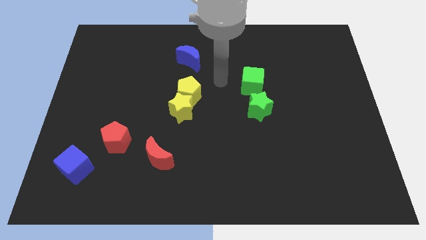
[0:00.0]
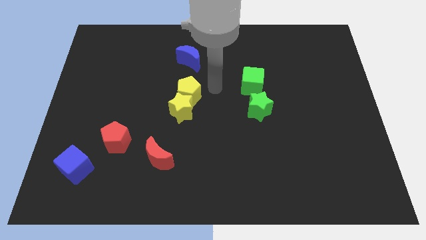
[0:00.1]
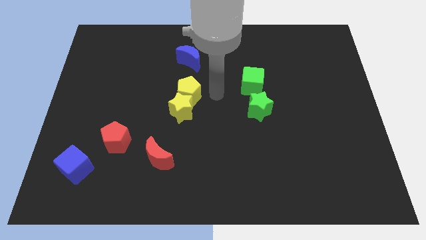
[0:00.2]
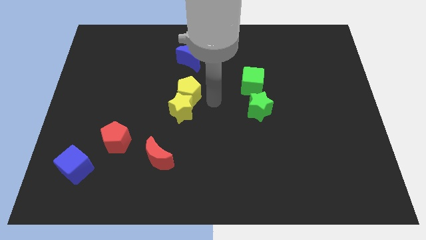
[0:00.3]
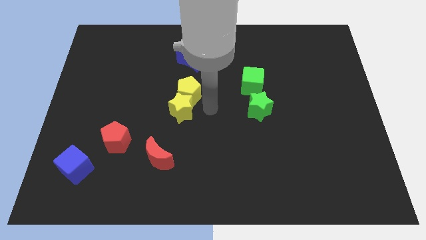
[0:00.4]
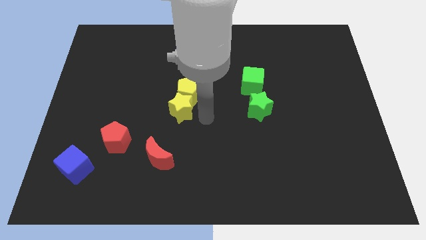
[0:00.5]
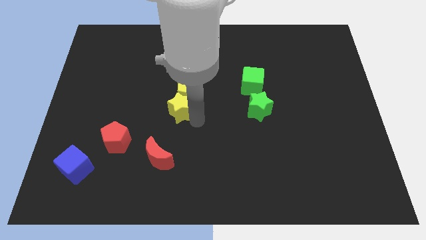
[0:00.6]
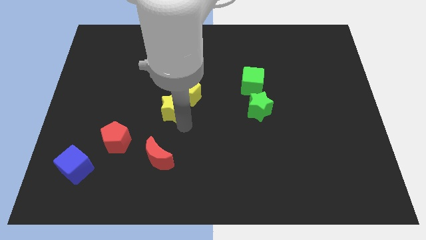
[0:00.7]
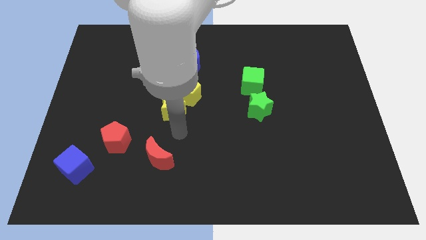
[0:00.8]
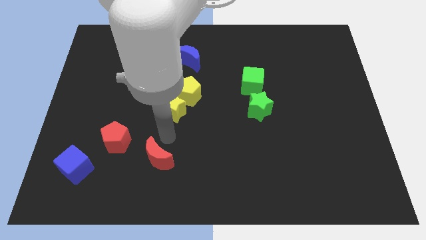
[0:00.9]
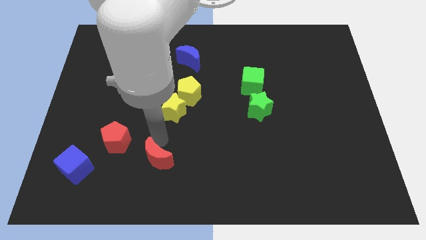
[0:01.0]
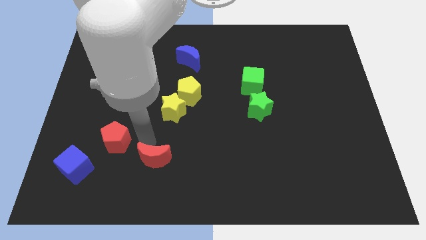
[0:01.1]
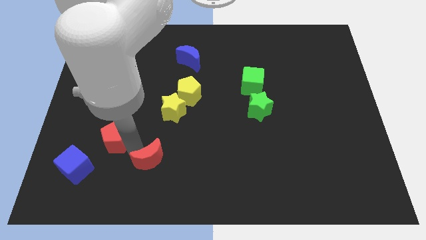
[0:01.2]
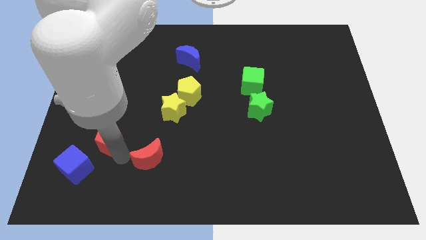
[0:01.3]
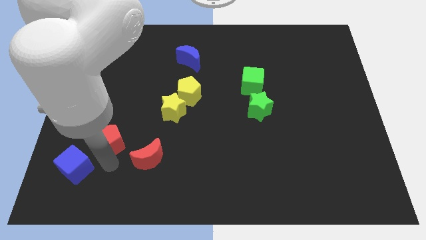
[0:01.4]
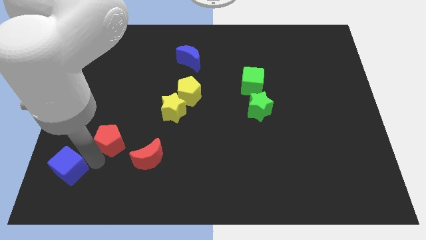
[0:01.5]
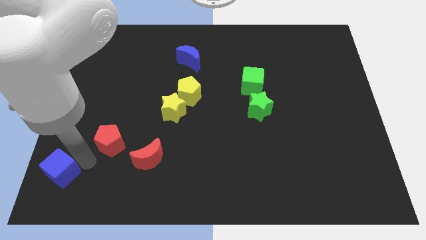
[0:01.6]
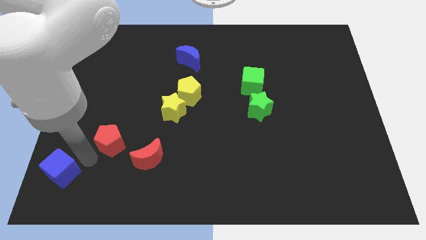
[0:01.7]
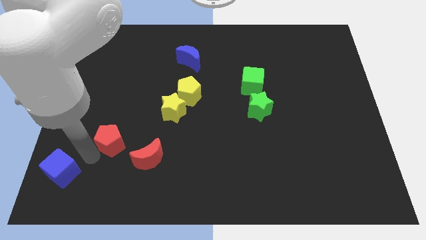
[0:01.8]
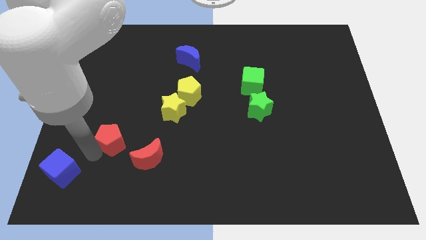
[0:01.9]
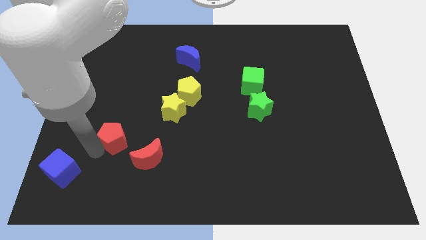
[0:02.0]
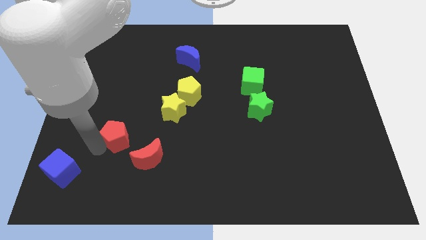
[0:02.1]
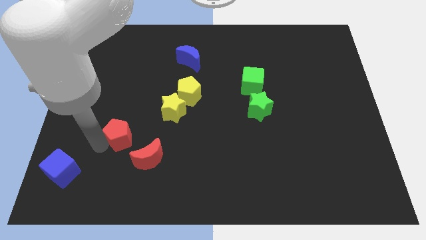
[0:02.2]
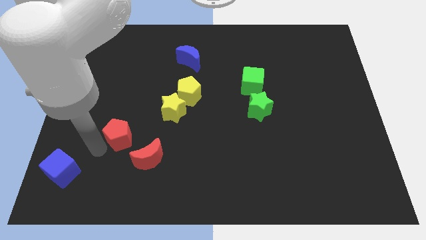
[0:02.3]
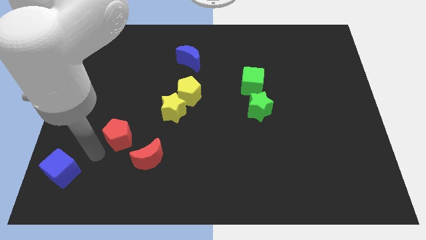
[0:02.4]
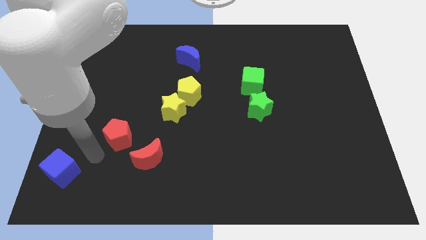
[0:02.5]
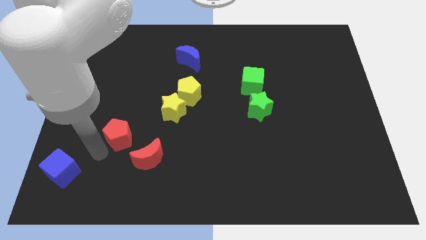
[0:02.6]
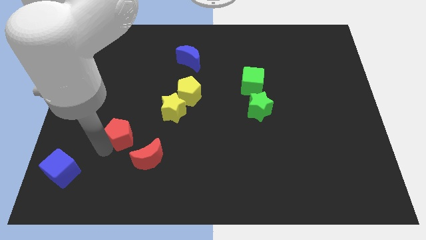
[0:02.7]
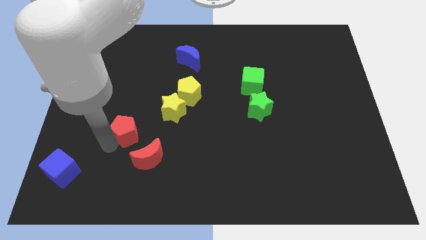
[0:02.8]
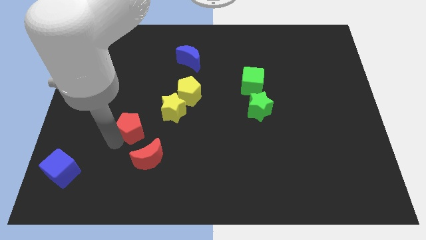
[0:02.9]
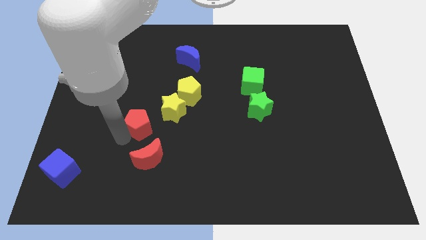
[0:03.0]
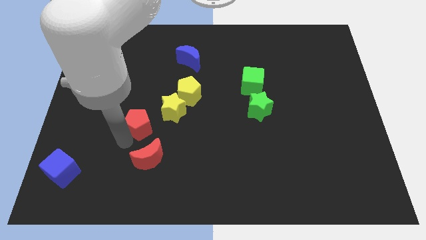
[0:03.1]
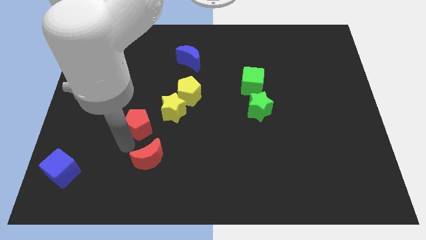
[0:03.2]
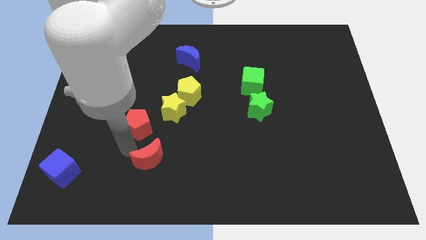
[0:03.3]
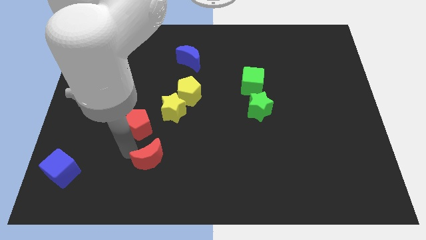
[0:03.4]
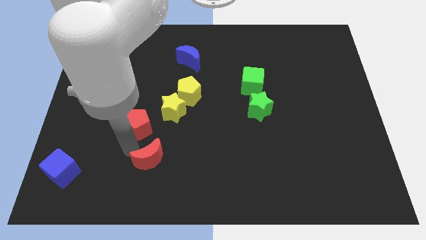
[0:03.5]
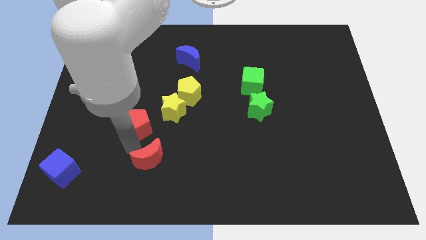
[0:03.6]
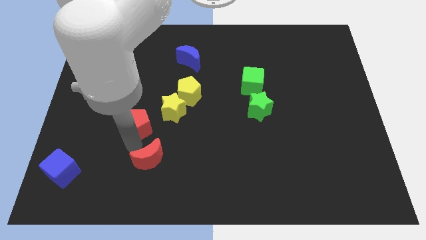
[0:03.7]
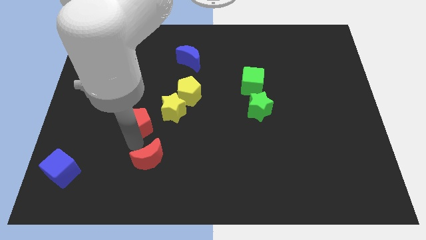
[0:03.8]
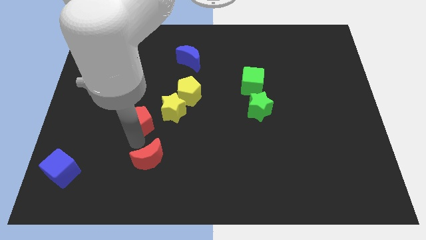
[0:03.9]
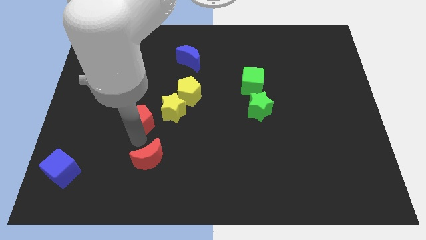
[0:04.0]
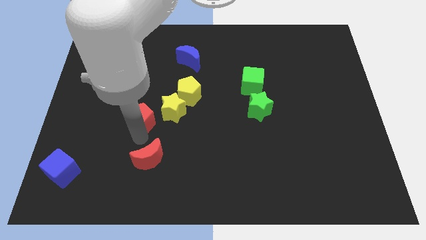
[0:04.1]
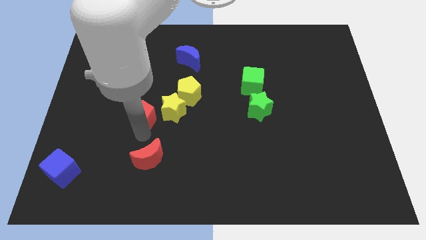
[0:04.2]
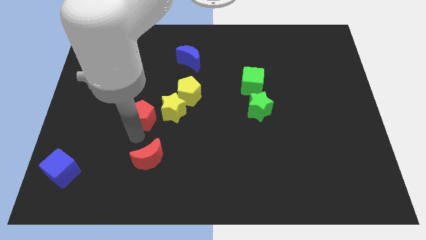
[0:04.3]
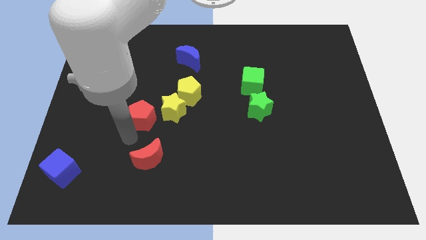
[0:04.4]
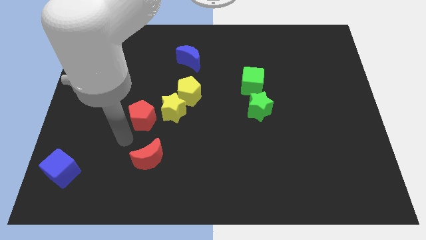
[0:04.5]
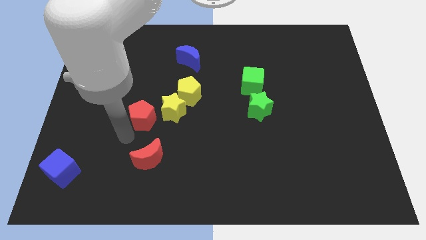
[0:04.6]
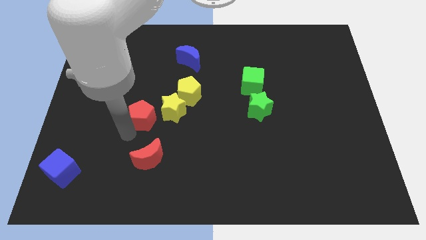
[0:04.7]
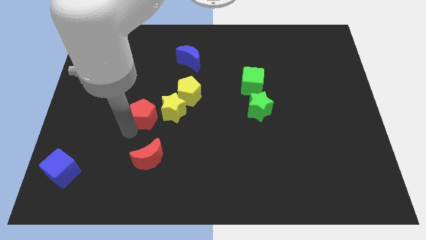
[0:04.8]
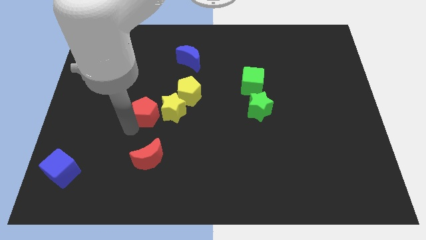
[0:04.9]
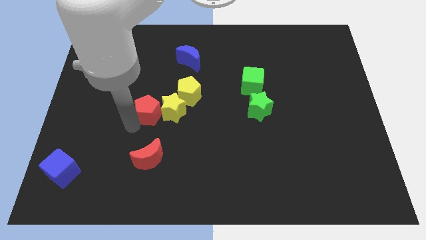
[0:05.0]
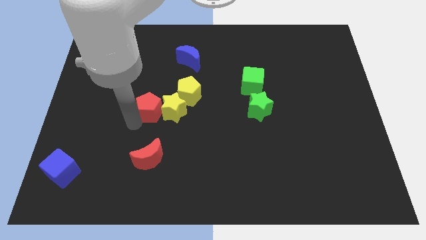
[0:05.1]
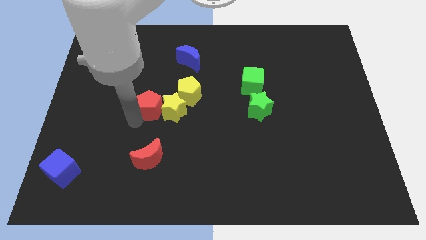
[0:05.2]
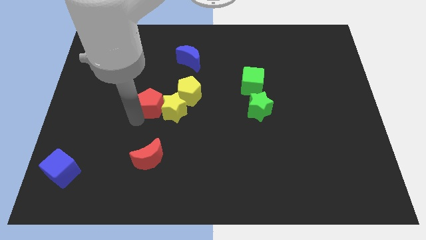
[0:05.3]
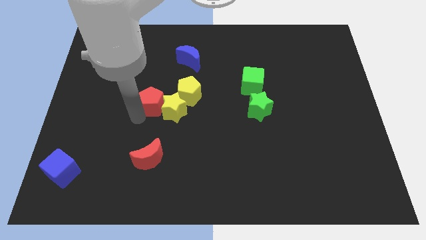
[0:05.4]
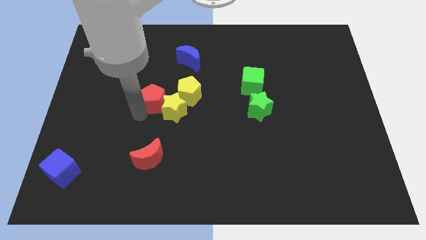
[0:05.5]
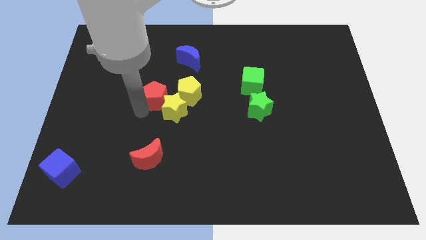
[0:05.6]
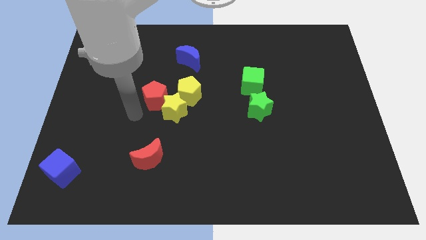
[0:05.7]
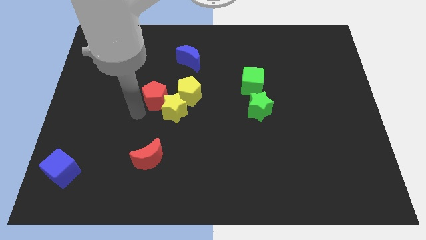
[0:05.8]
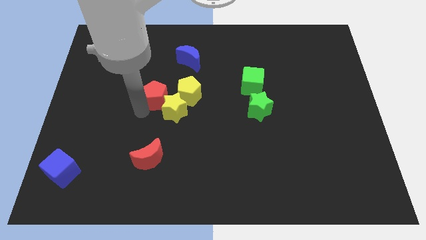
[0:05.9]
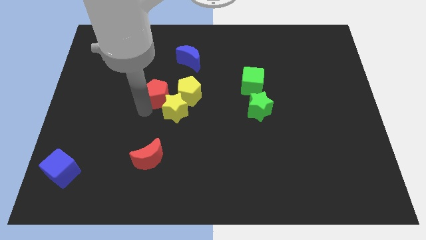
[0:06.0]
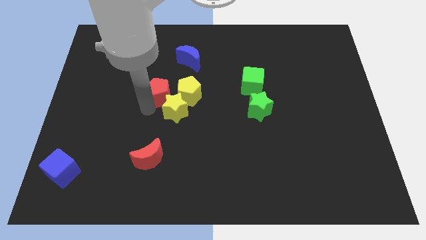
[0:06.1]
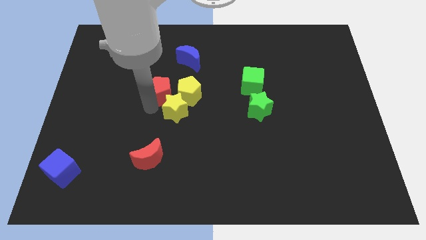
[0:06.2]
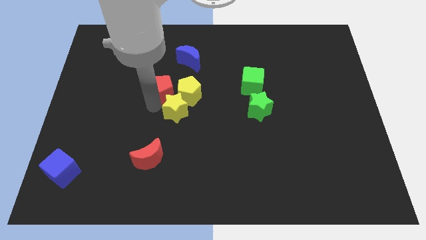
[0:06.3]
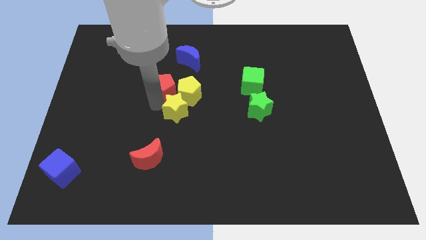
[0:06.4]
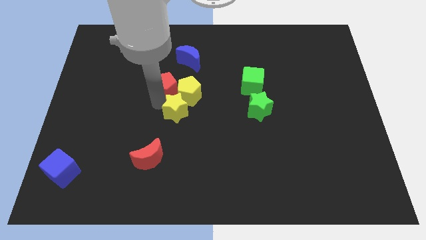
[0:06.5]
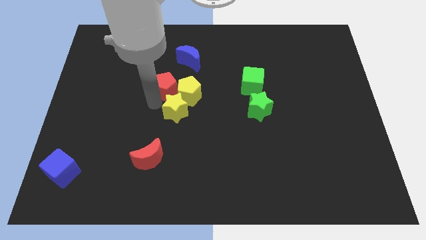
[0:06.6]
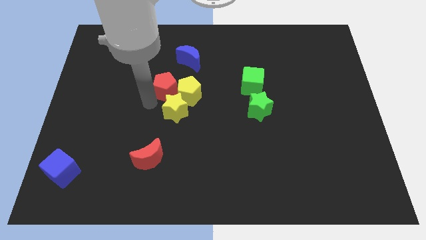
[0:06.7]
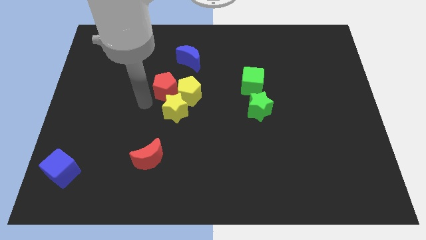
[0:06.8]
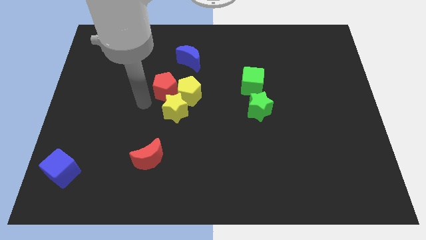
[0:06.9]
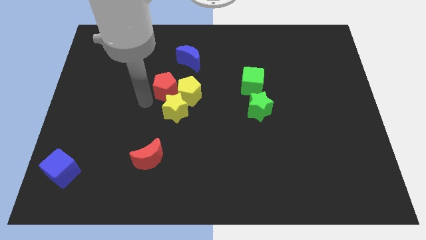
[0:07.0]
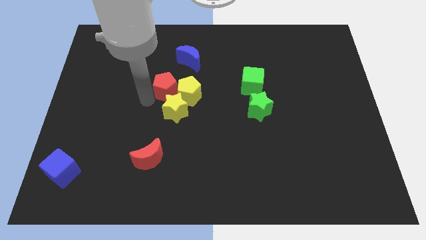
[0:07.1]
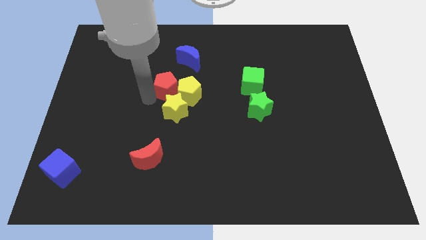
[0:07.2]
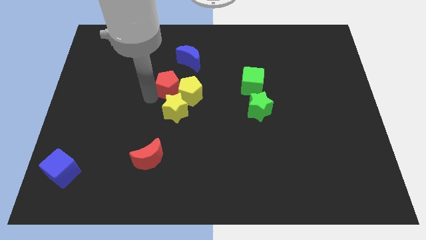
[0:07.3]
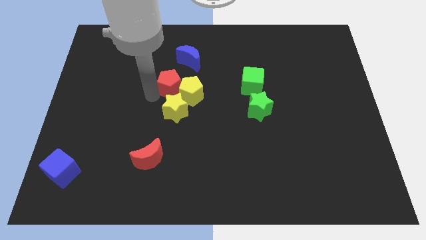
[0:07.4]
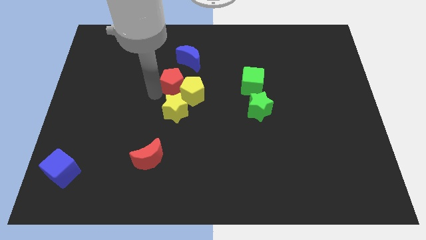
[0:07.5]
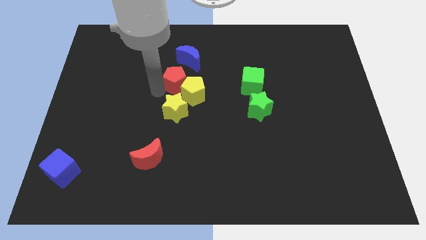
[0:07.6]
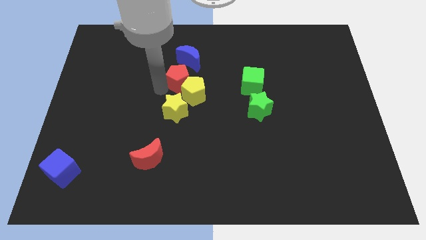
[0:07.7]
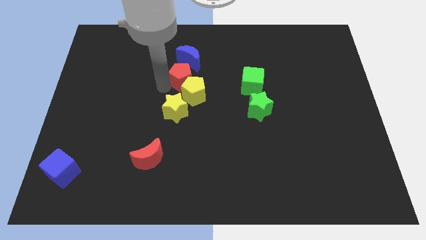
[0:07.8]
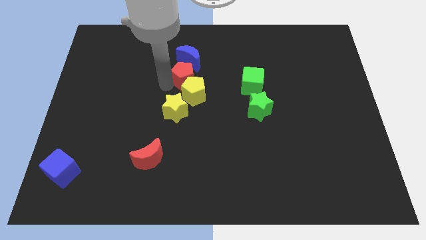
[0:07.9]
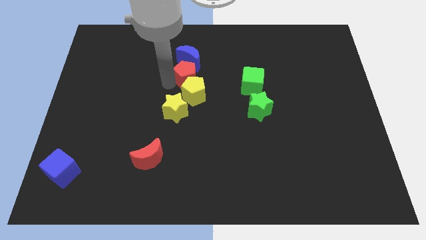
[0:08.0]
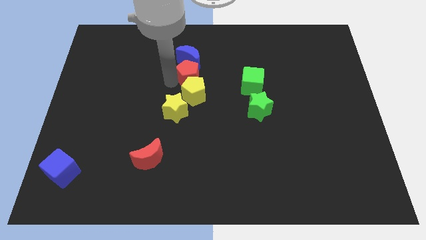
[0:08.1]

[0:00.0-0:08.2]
put the red pentagon left of the green cube
